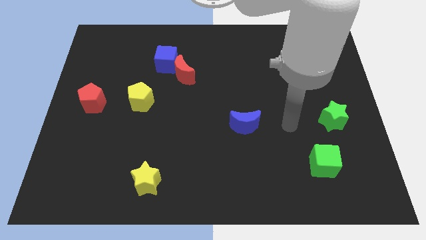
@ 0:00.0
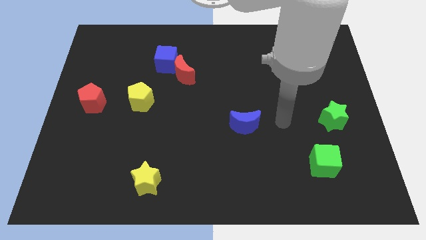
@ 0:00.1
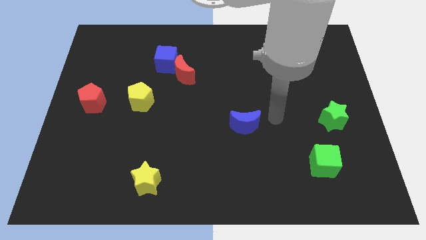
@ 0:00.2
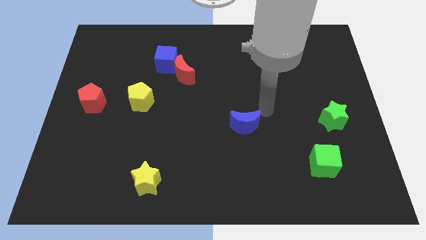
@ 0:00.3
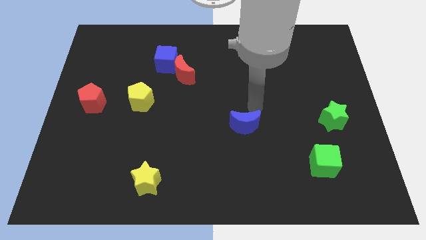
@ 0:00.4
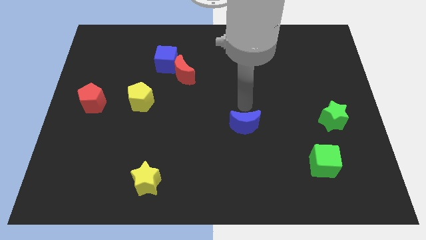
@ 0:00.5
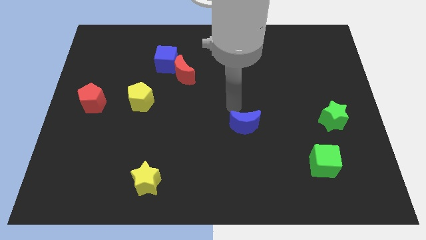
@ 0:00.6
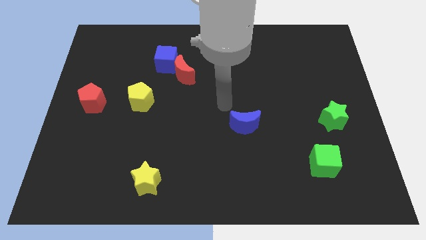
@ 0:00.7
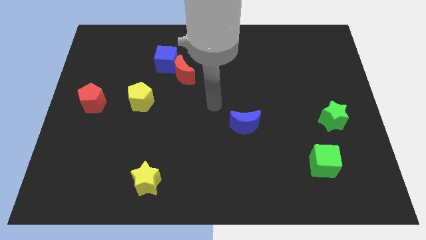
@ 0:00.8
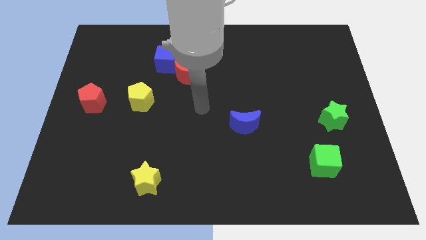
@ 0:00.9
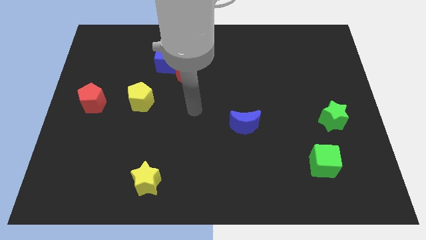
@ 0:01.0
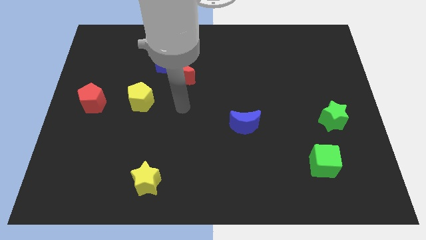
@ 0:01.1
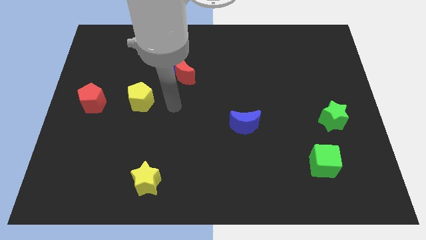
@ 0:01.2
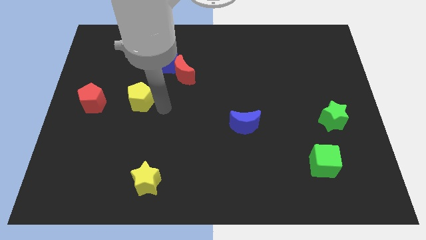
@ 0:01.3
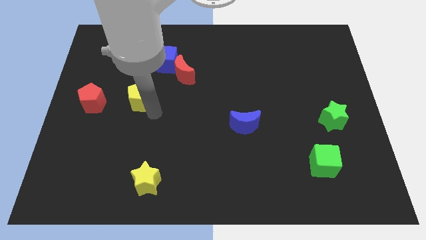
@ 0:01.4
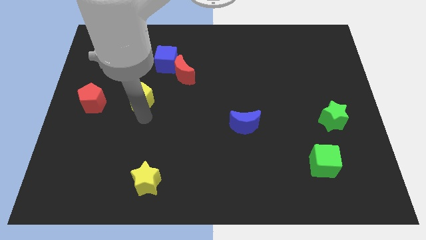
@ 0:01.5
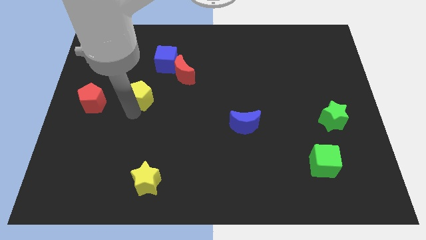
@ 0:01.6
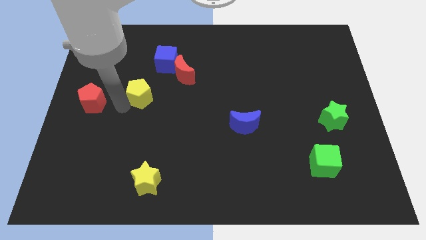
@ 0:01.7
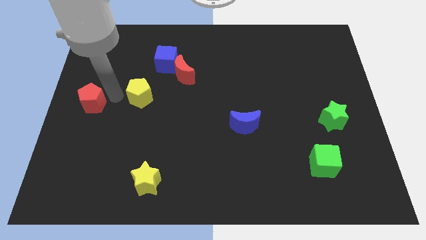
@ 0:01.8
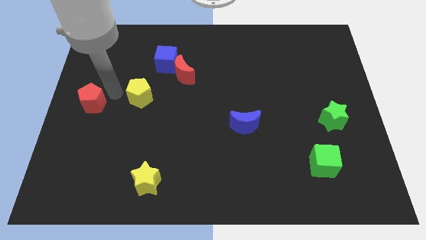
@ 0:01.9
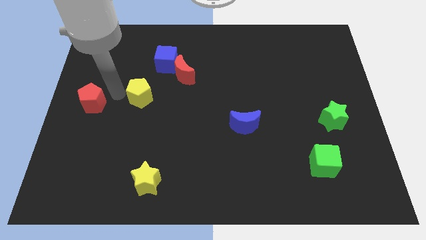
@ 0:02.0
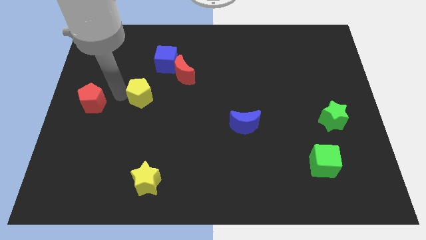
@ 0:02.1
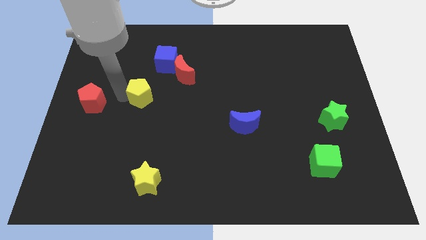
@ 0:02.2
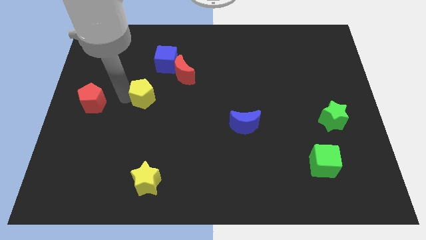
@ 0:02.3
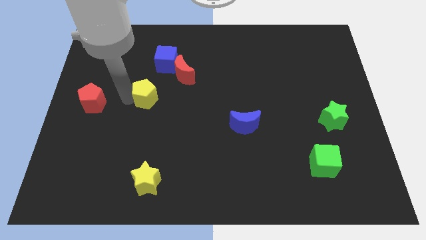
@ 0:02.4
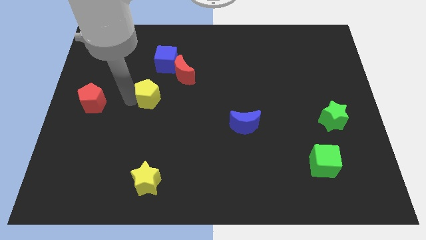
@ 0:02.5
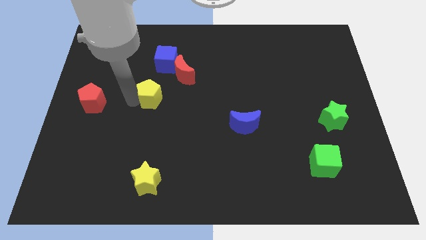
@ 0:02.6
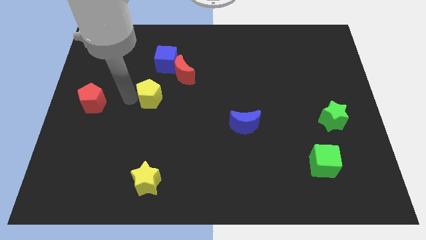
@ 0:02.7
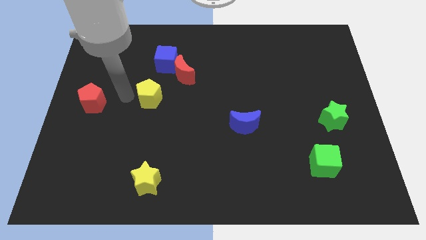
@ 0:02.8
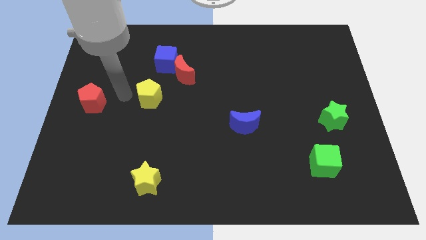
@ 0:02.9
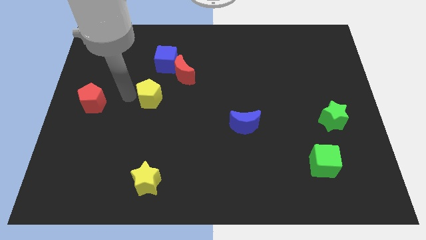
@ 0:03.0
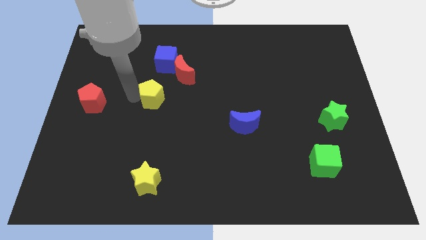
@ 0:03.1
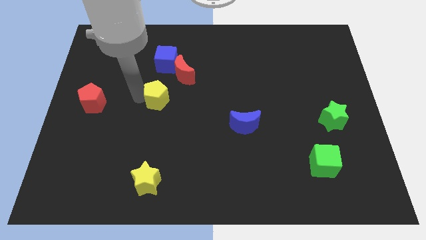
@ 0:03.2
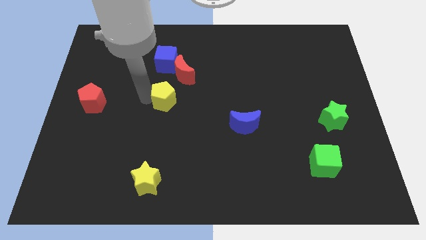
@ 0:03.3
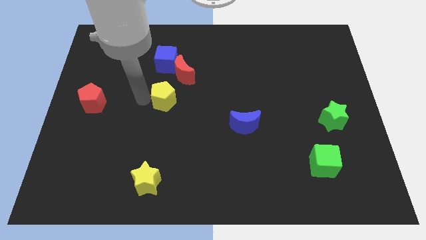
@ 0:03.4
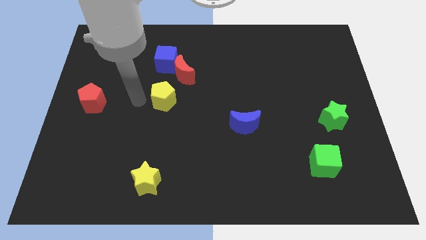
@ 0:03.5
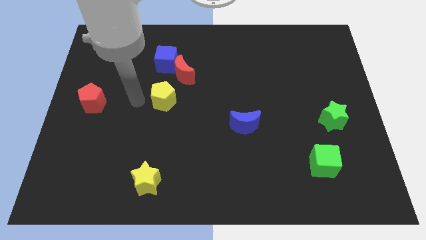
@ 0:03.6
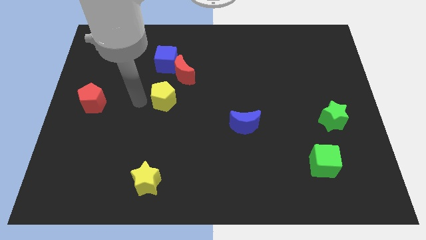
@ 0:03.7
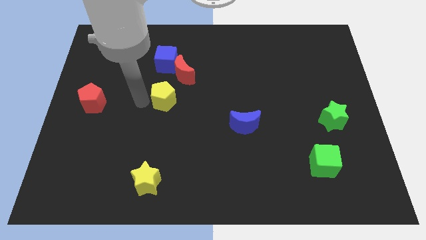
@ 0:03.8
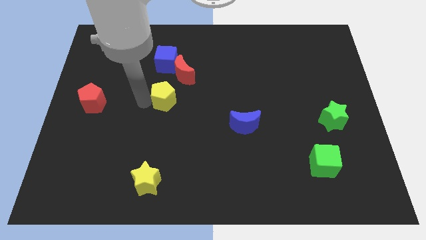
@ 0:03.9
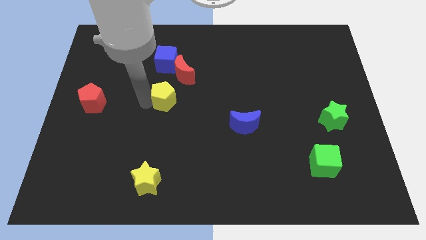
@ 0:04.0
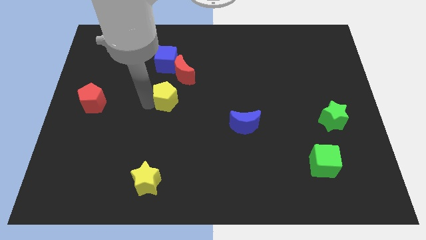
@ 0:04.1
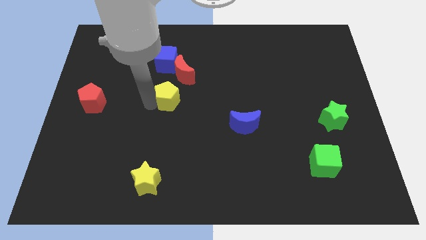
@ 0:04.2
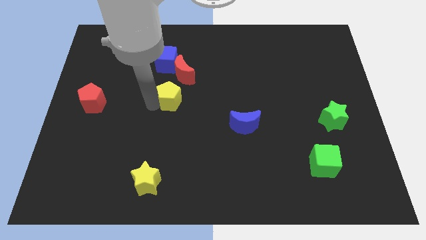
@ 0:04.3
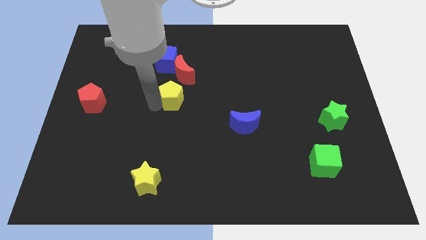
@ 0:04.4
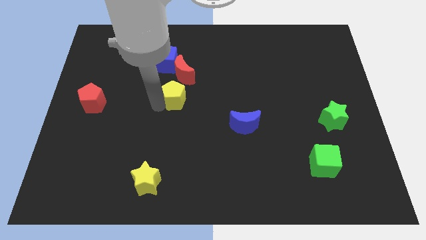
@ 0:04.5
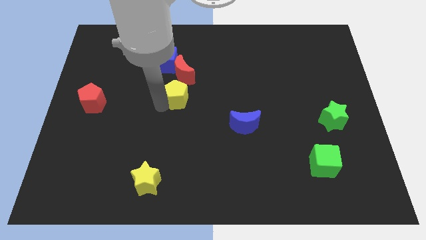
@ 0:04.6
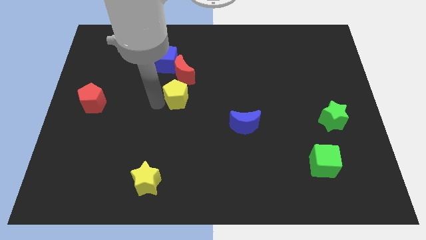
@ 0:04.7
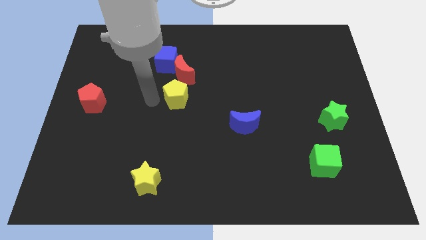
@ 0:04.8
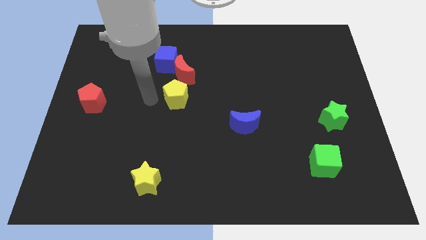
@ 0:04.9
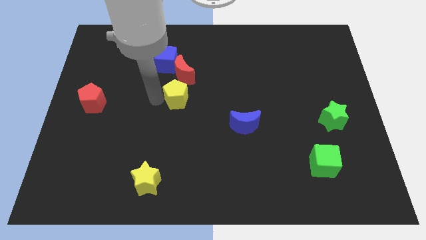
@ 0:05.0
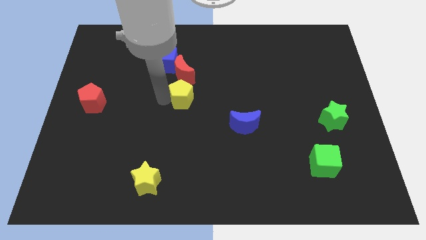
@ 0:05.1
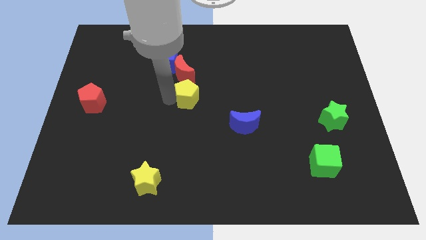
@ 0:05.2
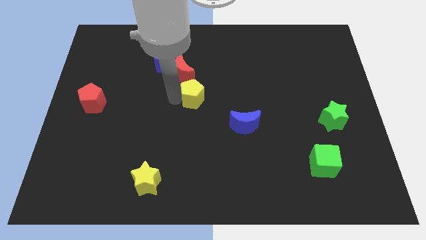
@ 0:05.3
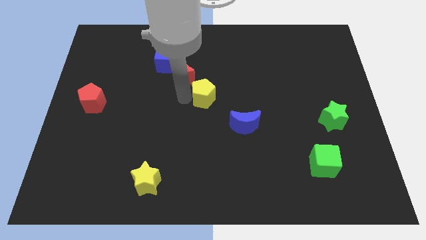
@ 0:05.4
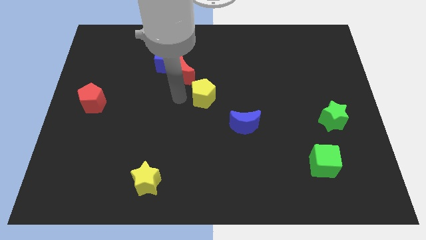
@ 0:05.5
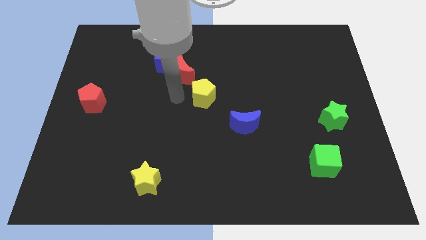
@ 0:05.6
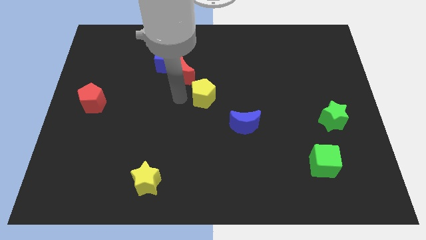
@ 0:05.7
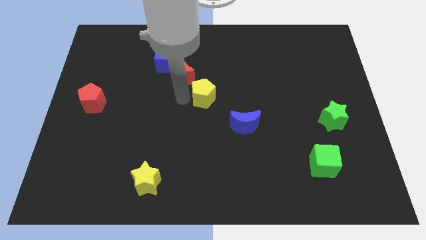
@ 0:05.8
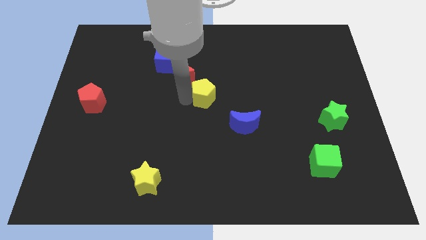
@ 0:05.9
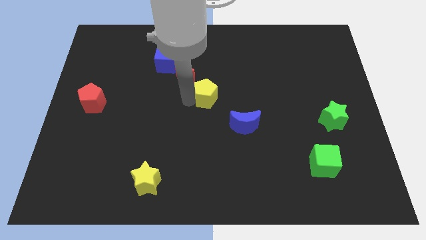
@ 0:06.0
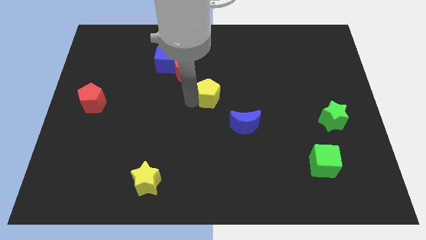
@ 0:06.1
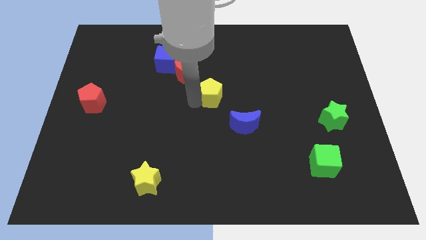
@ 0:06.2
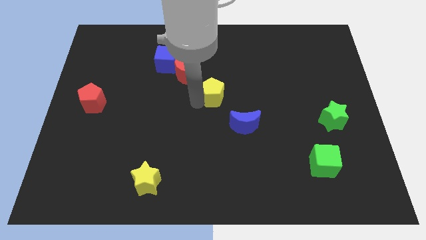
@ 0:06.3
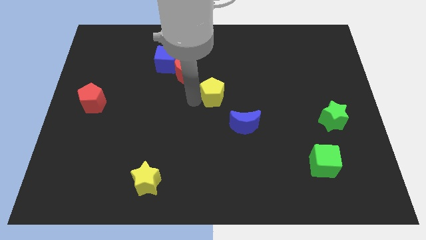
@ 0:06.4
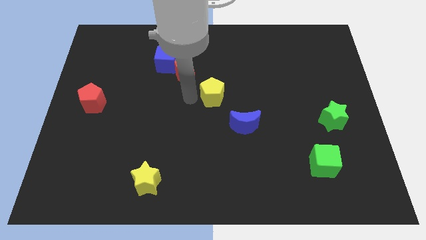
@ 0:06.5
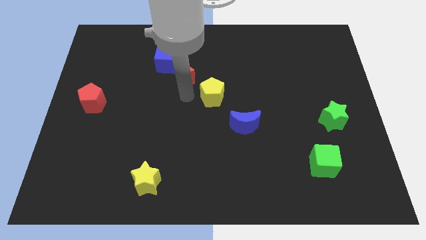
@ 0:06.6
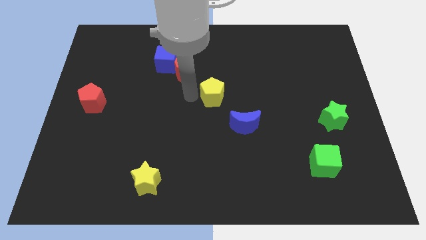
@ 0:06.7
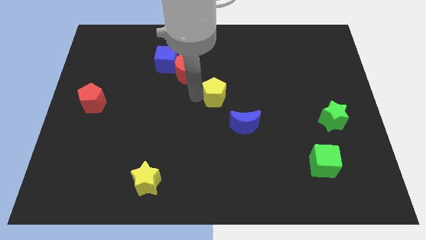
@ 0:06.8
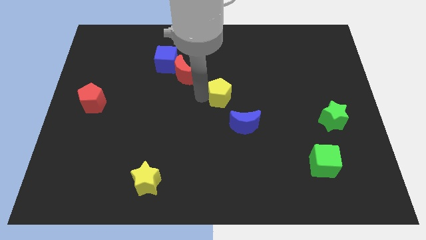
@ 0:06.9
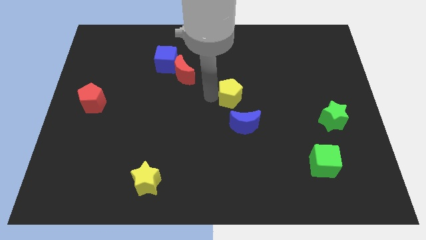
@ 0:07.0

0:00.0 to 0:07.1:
move the yellow pentagon to the right

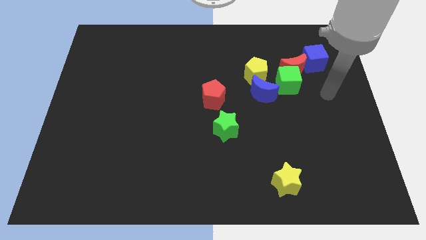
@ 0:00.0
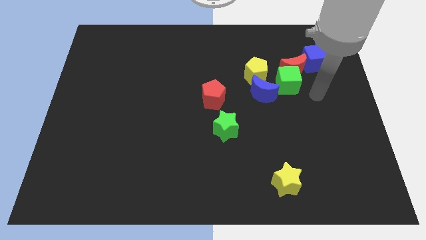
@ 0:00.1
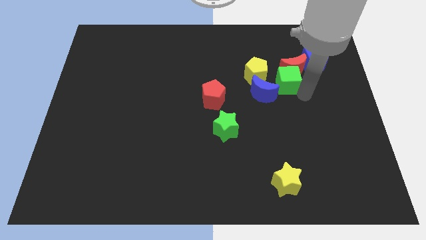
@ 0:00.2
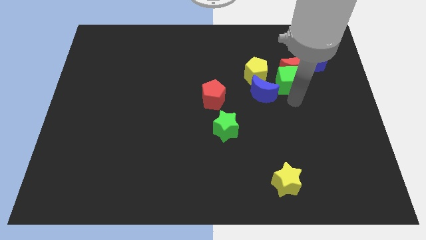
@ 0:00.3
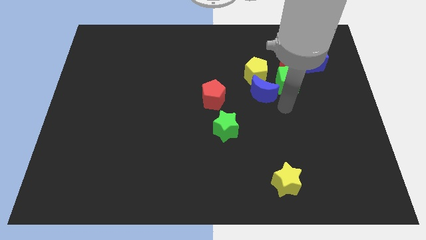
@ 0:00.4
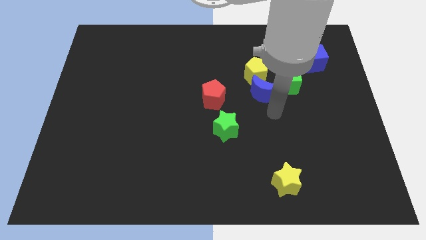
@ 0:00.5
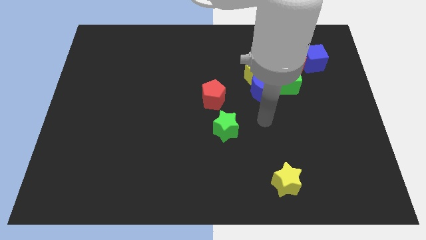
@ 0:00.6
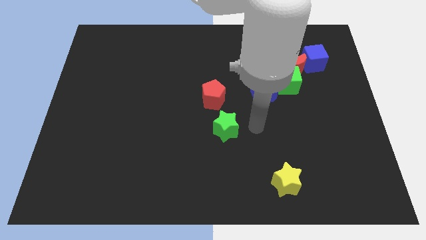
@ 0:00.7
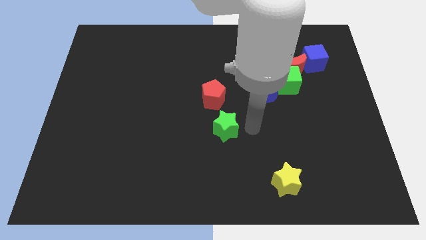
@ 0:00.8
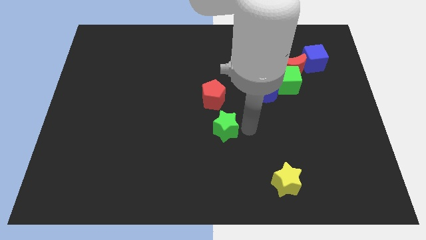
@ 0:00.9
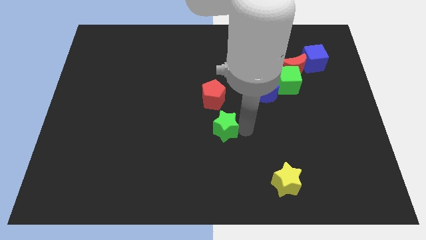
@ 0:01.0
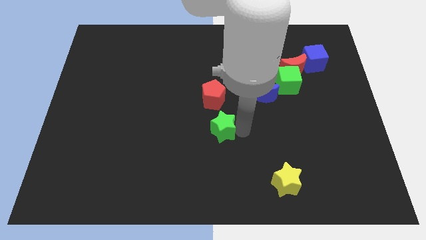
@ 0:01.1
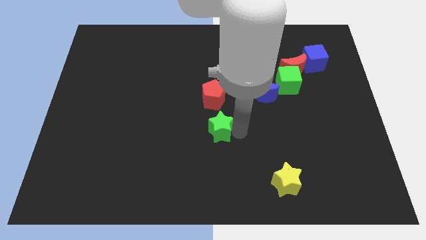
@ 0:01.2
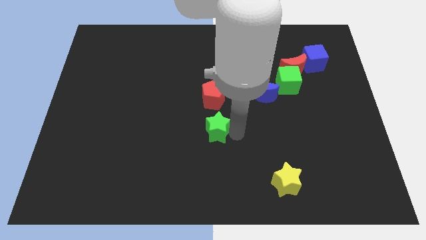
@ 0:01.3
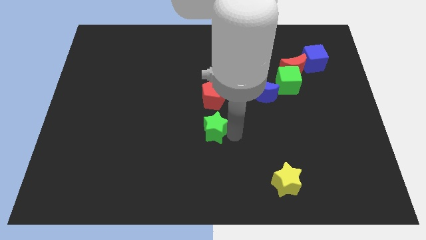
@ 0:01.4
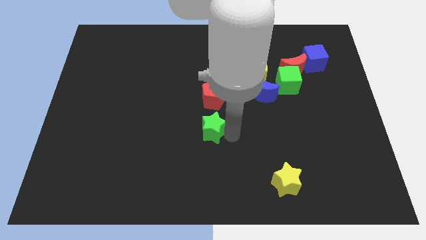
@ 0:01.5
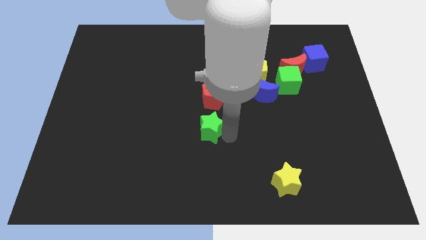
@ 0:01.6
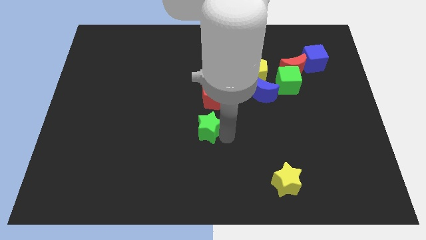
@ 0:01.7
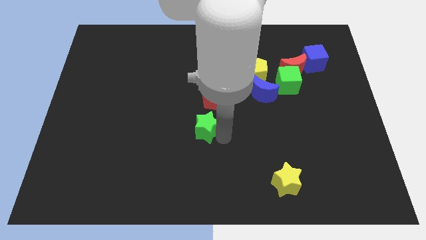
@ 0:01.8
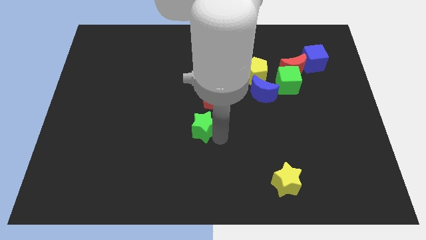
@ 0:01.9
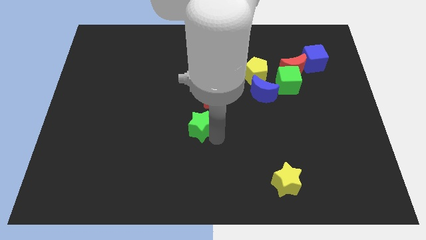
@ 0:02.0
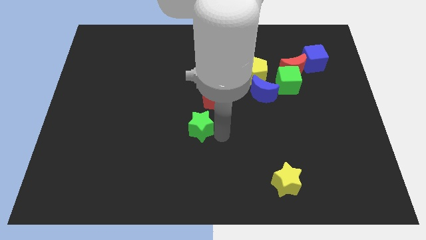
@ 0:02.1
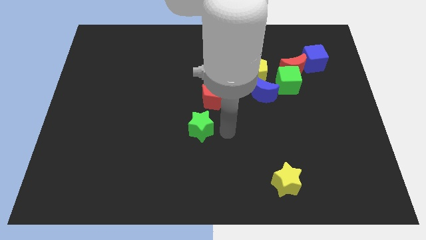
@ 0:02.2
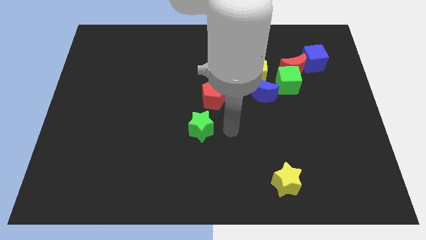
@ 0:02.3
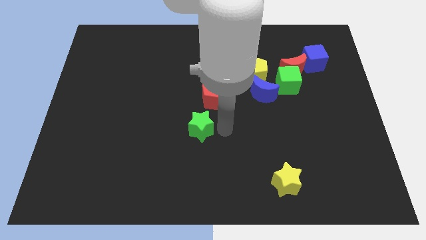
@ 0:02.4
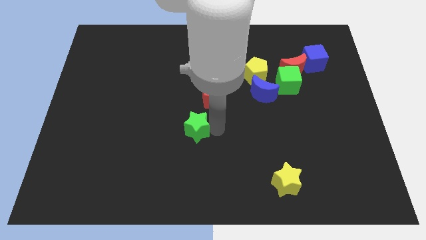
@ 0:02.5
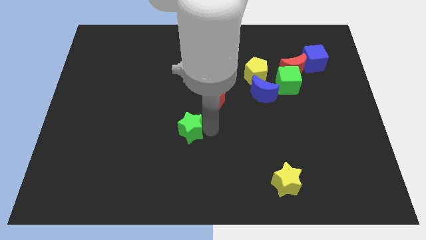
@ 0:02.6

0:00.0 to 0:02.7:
slightly slide the green star to the left
